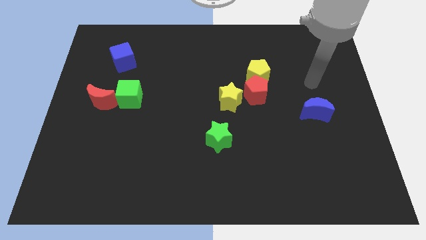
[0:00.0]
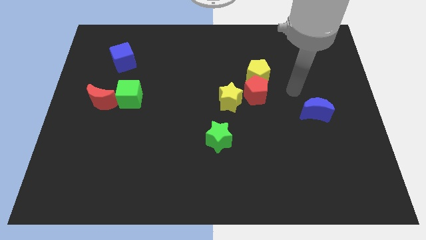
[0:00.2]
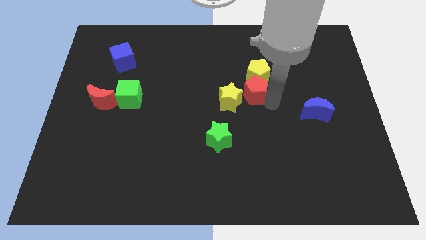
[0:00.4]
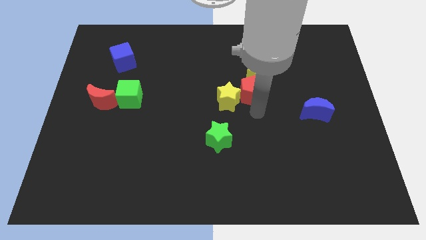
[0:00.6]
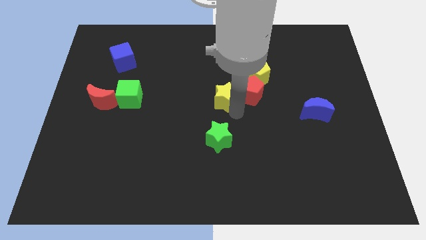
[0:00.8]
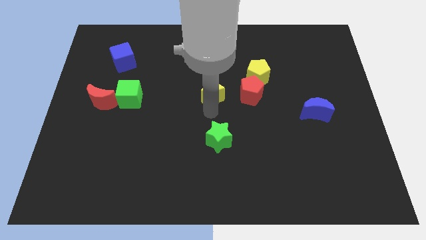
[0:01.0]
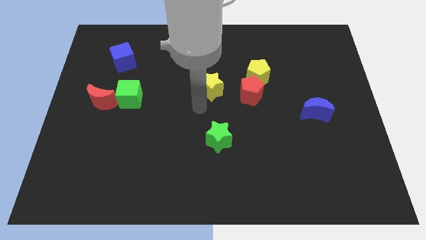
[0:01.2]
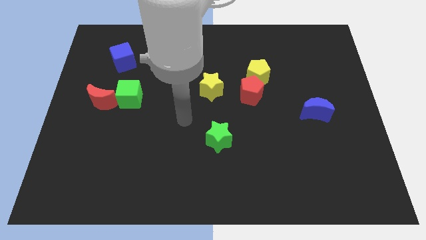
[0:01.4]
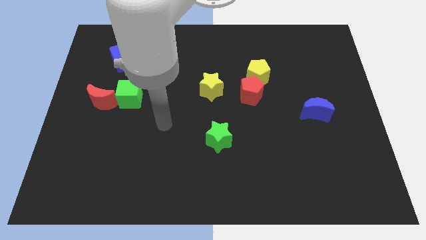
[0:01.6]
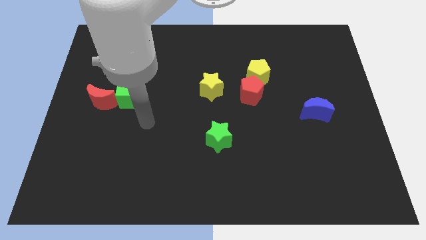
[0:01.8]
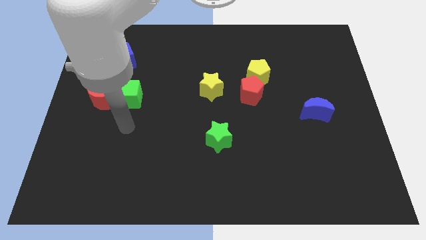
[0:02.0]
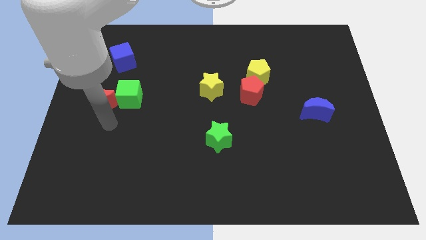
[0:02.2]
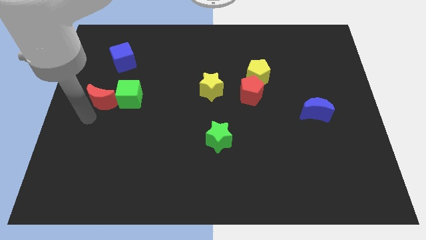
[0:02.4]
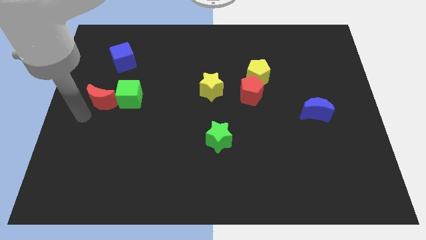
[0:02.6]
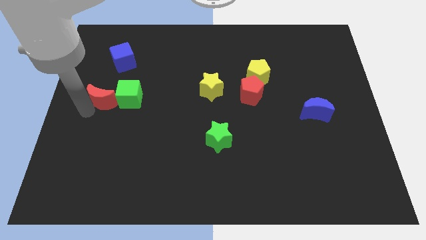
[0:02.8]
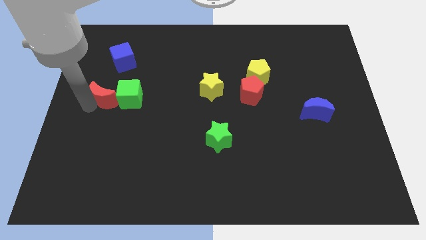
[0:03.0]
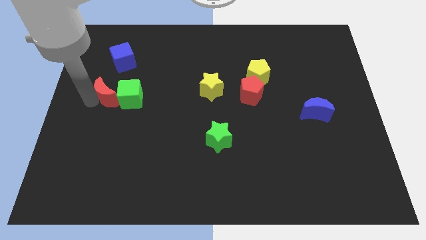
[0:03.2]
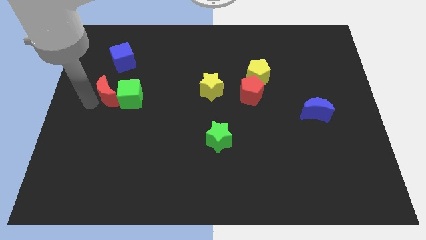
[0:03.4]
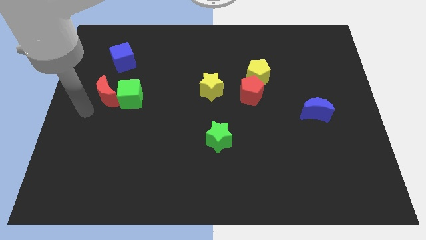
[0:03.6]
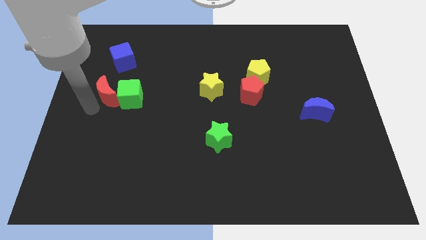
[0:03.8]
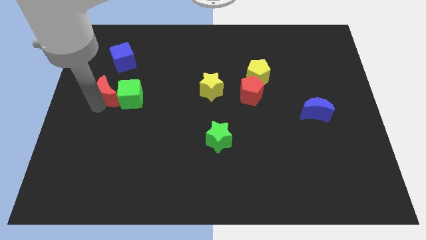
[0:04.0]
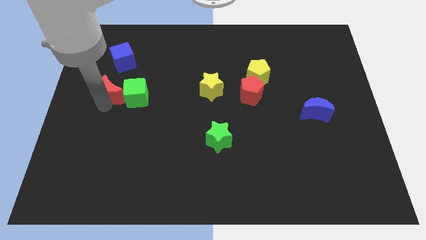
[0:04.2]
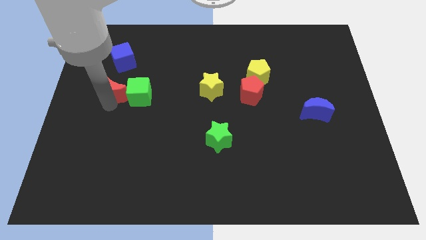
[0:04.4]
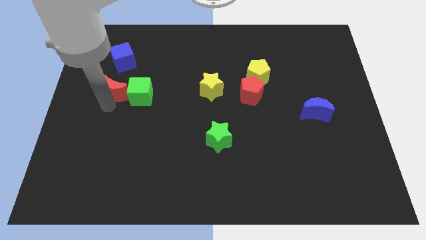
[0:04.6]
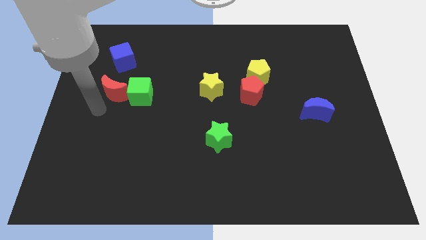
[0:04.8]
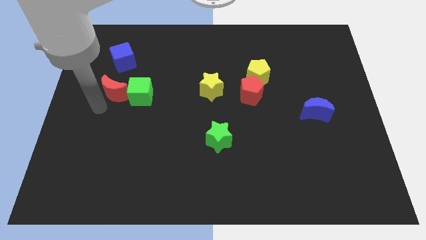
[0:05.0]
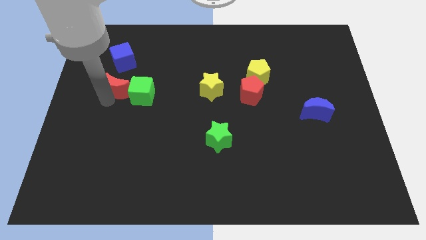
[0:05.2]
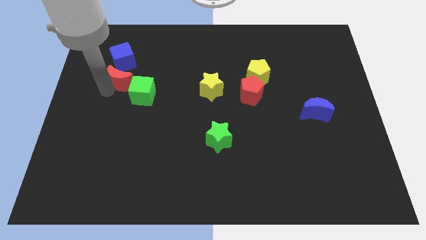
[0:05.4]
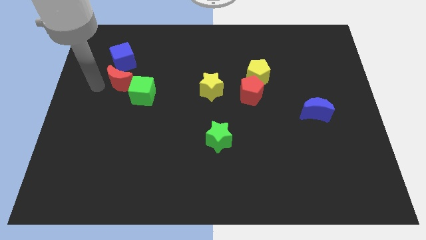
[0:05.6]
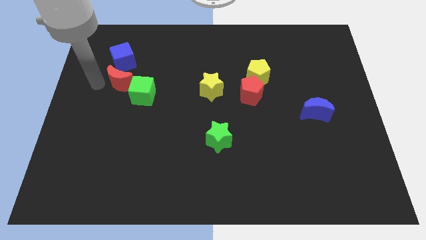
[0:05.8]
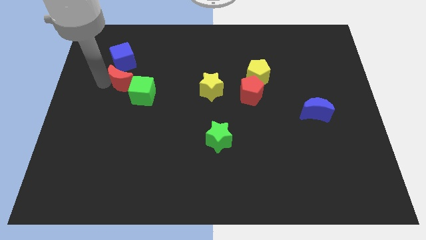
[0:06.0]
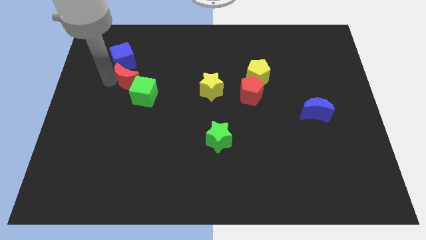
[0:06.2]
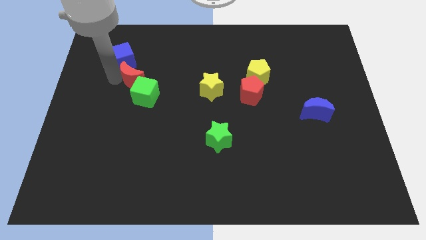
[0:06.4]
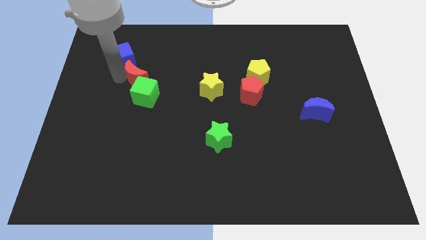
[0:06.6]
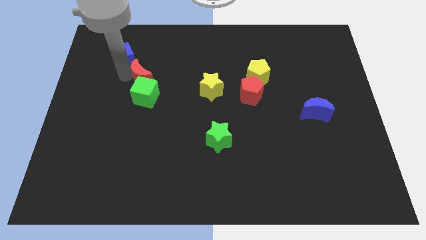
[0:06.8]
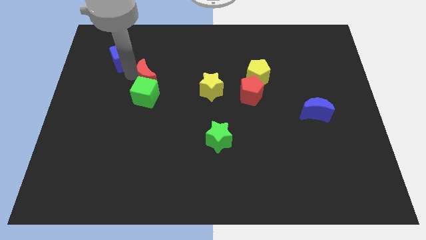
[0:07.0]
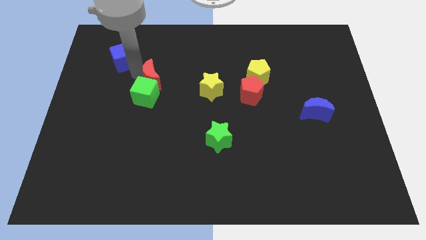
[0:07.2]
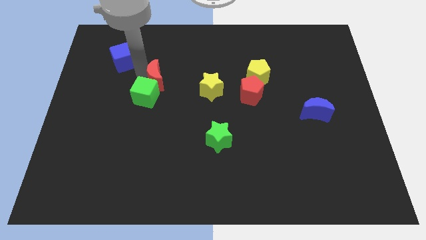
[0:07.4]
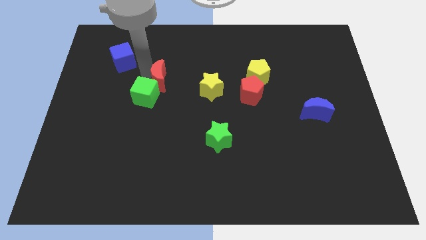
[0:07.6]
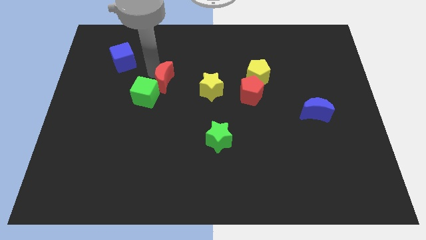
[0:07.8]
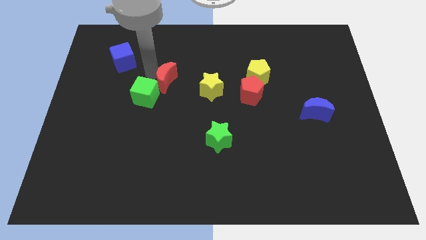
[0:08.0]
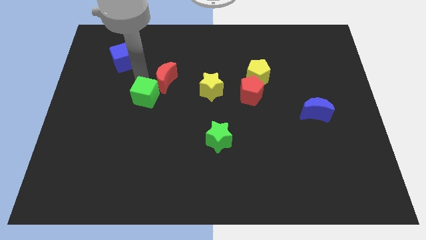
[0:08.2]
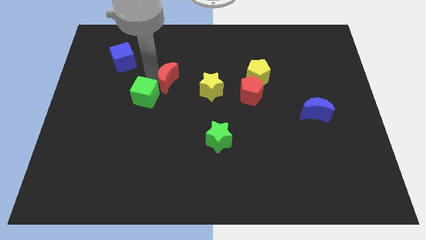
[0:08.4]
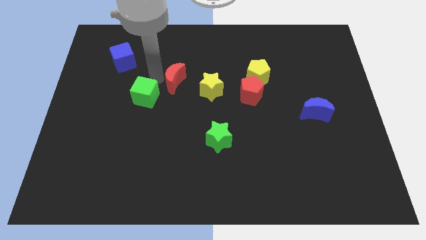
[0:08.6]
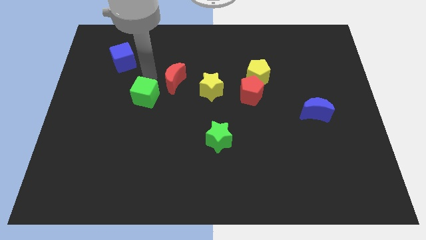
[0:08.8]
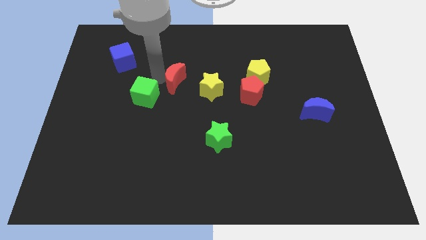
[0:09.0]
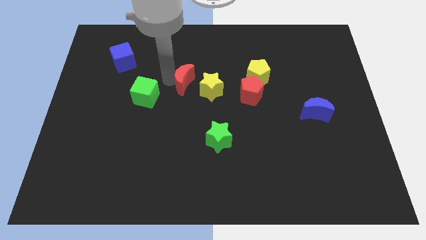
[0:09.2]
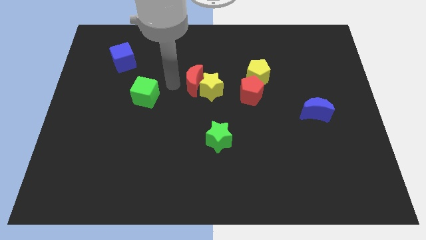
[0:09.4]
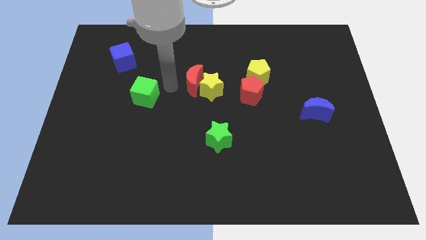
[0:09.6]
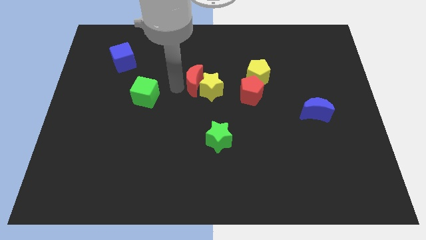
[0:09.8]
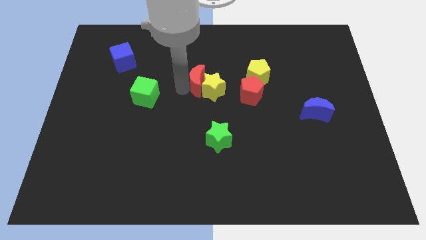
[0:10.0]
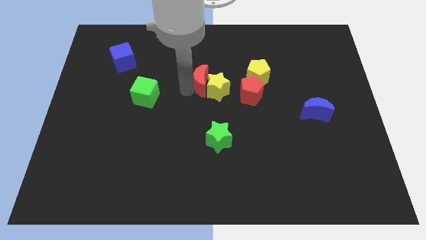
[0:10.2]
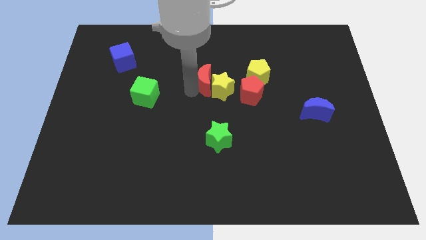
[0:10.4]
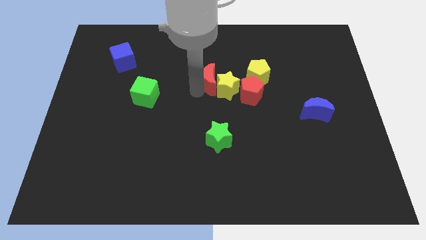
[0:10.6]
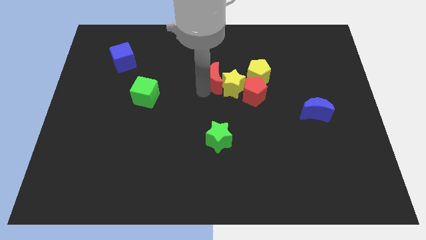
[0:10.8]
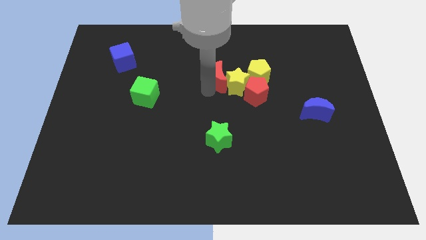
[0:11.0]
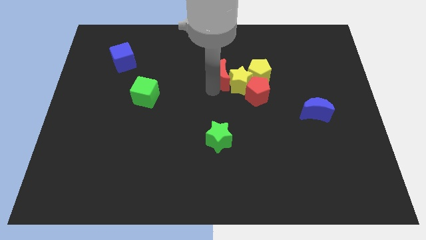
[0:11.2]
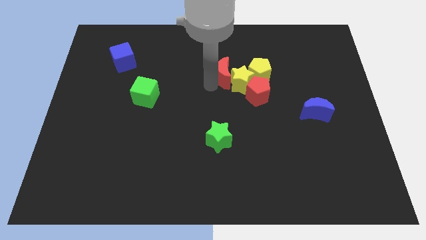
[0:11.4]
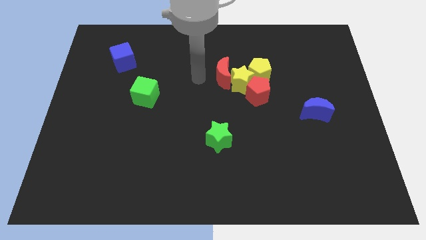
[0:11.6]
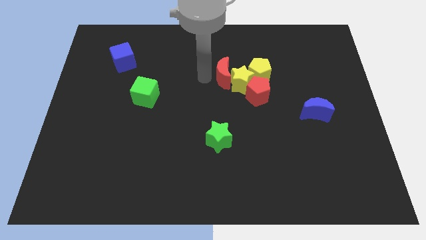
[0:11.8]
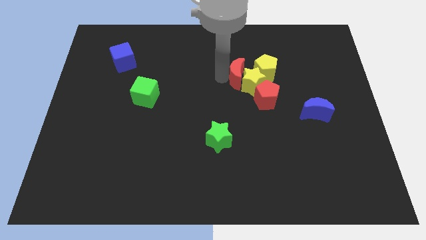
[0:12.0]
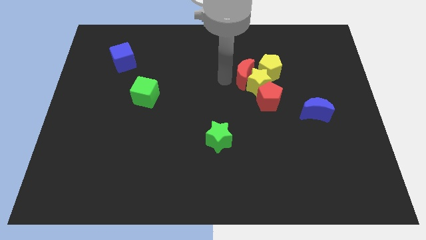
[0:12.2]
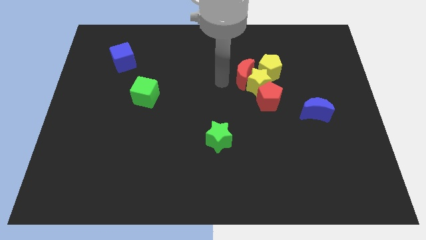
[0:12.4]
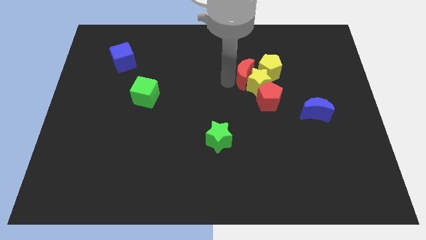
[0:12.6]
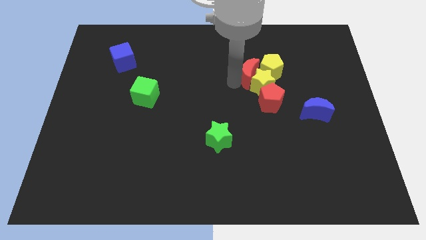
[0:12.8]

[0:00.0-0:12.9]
push the red moon to the yellow pentagon
